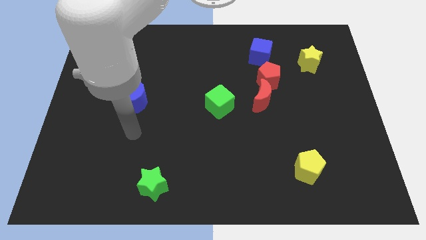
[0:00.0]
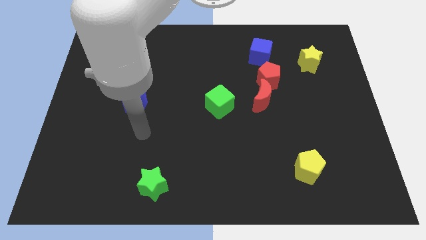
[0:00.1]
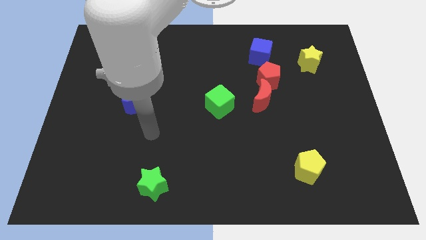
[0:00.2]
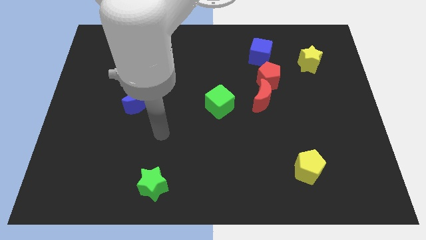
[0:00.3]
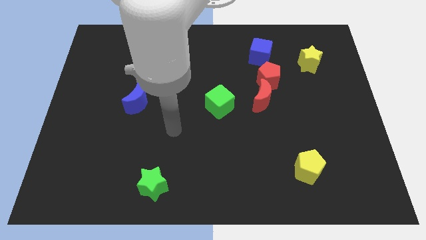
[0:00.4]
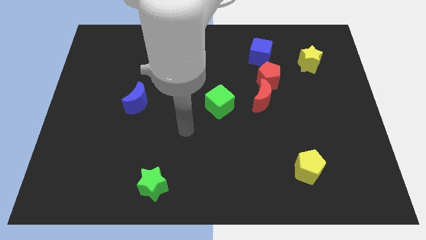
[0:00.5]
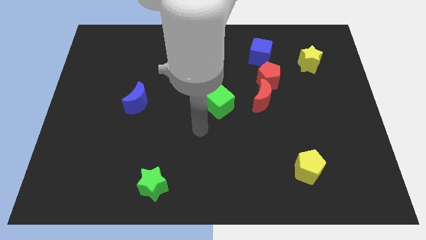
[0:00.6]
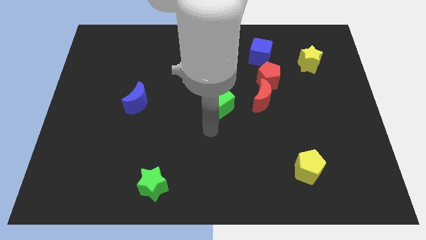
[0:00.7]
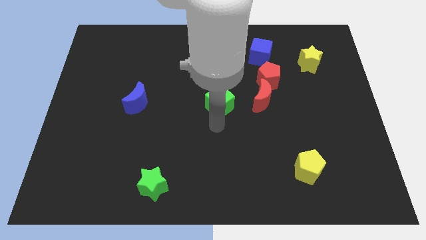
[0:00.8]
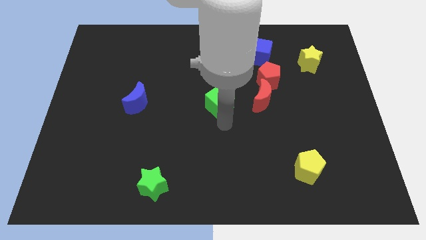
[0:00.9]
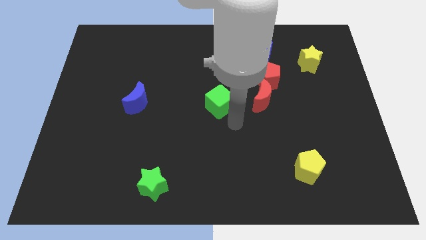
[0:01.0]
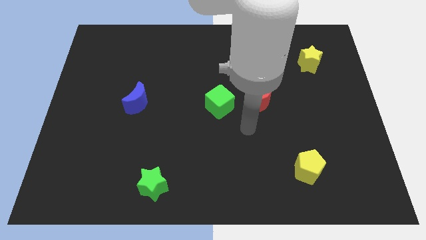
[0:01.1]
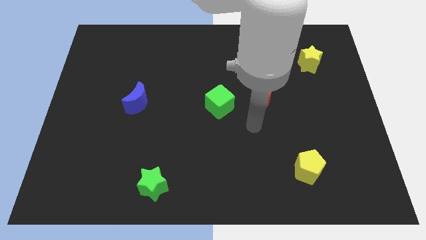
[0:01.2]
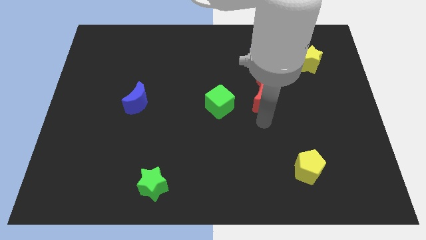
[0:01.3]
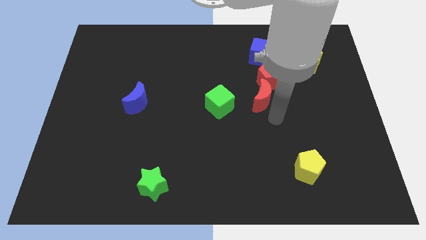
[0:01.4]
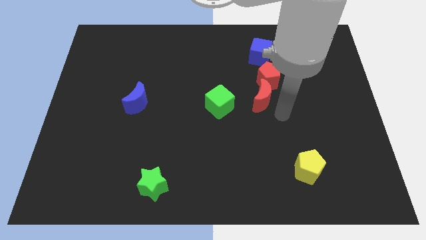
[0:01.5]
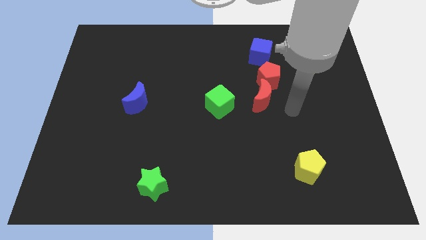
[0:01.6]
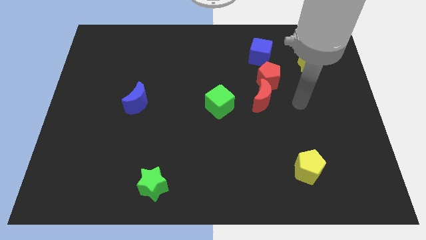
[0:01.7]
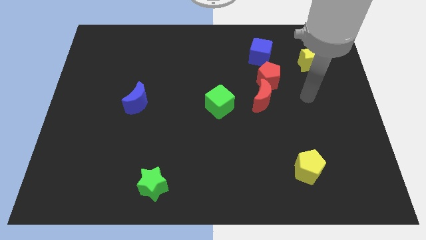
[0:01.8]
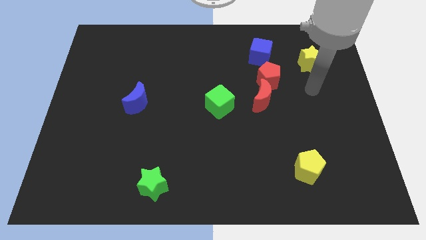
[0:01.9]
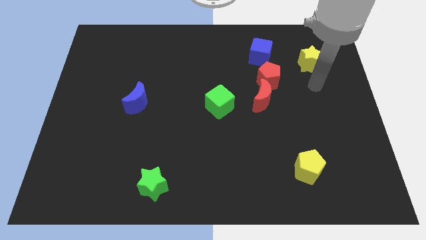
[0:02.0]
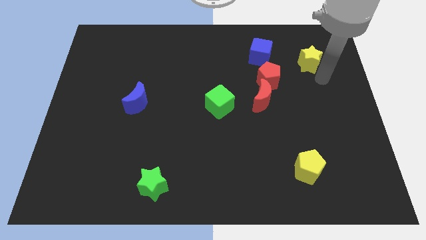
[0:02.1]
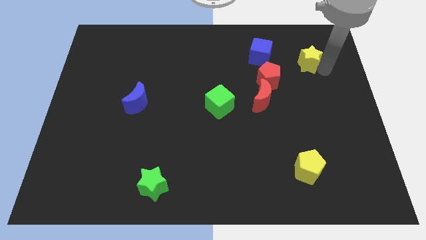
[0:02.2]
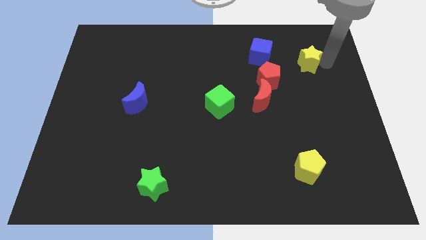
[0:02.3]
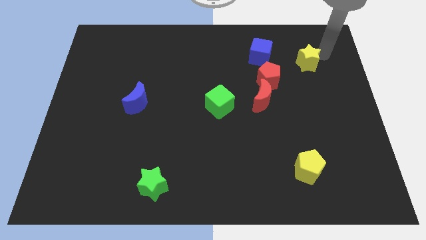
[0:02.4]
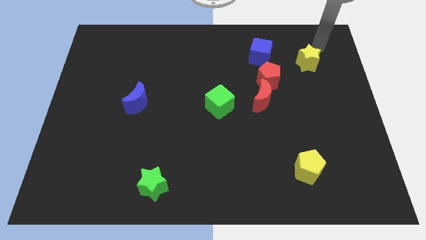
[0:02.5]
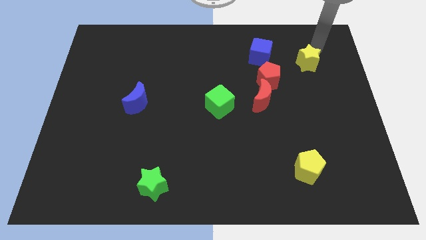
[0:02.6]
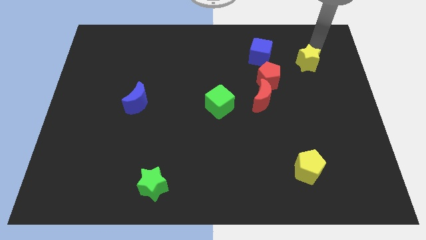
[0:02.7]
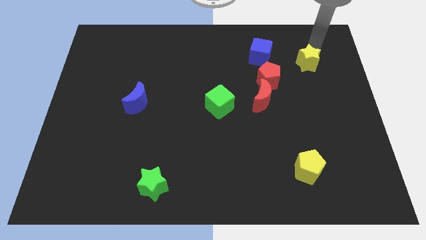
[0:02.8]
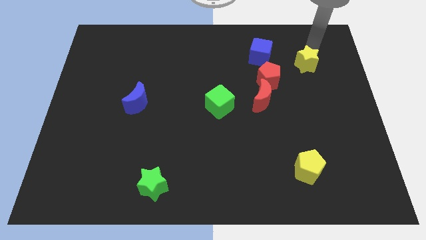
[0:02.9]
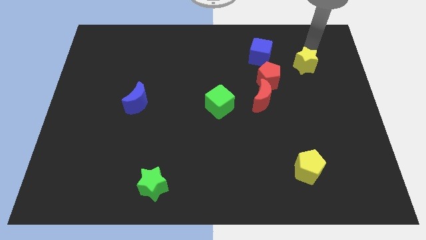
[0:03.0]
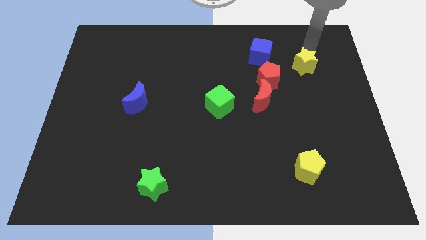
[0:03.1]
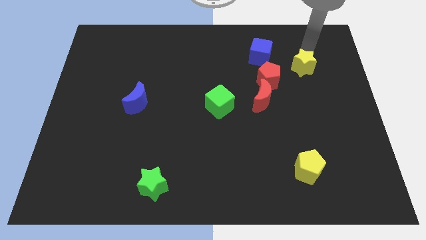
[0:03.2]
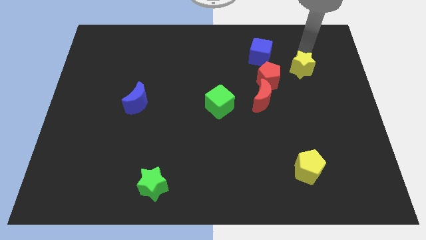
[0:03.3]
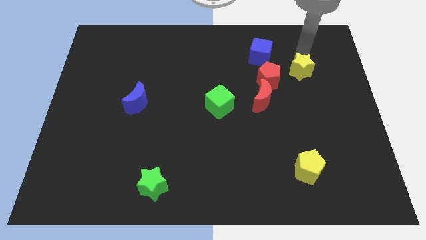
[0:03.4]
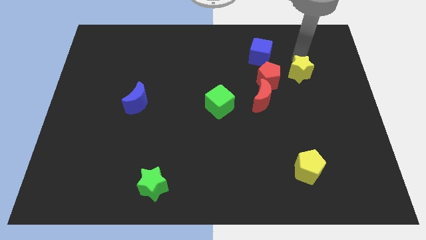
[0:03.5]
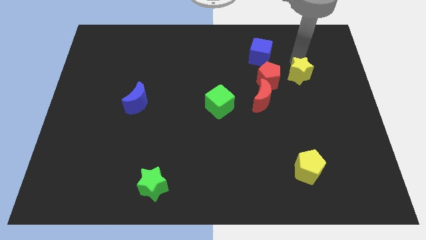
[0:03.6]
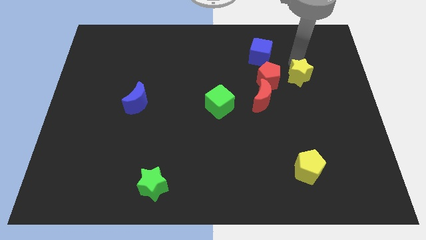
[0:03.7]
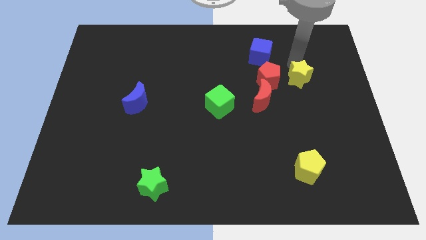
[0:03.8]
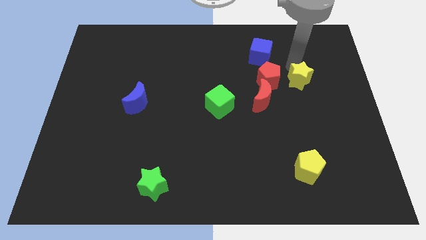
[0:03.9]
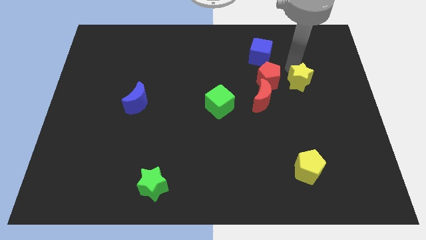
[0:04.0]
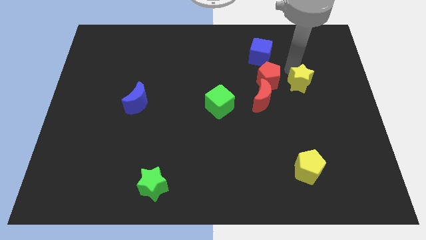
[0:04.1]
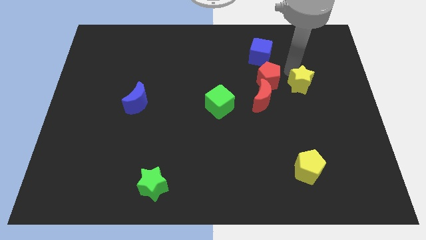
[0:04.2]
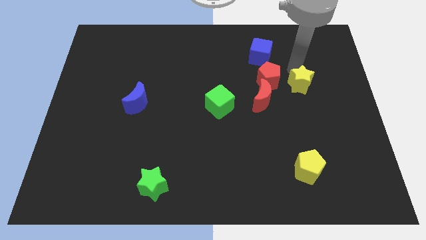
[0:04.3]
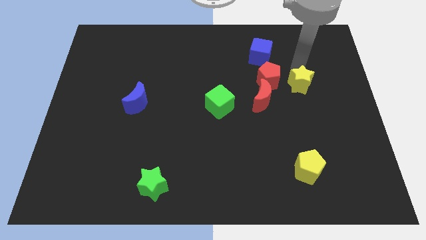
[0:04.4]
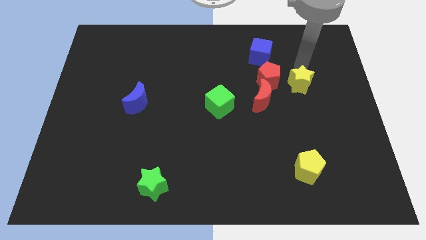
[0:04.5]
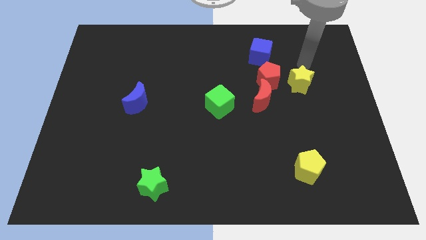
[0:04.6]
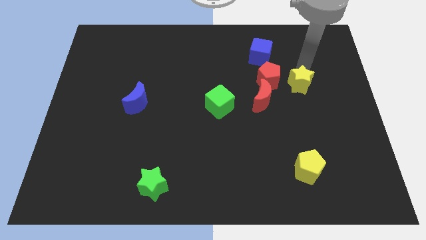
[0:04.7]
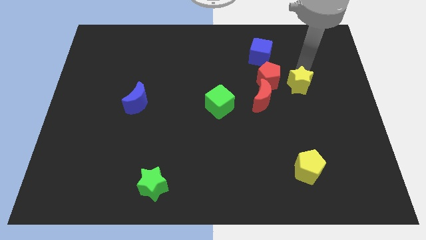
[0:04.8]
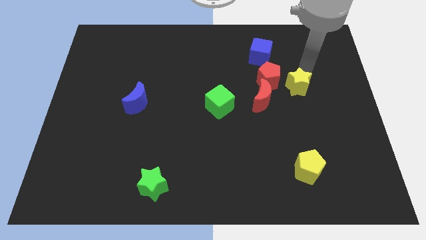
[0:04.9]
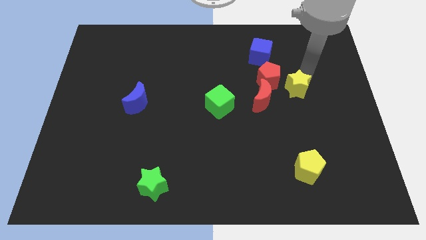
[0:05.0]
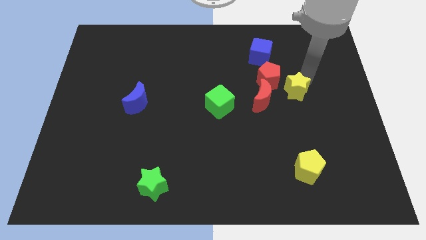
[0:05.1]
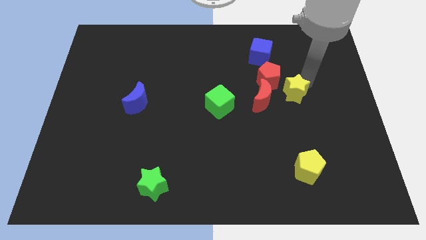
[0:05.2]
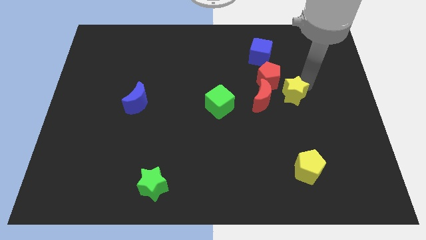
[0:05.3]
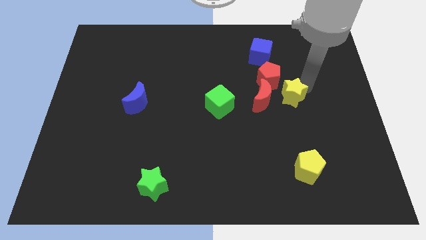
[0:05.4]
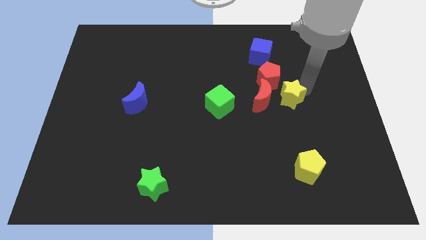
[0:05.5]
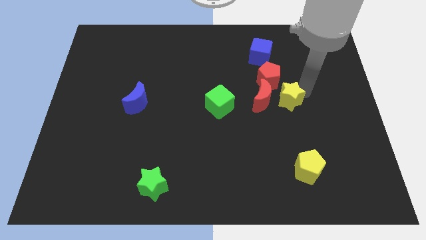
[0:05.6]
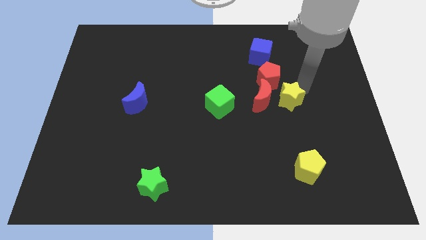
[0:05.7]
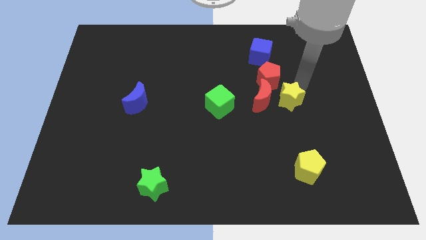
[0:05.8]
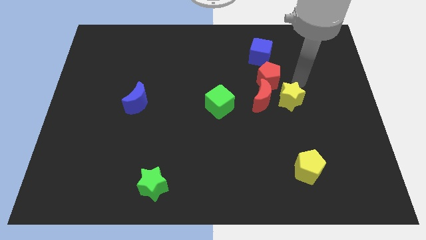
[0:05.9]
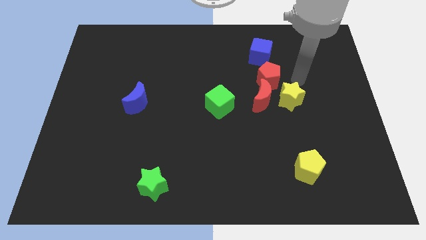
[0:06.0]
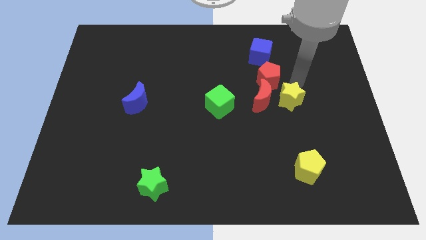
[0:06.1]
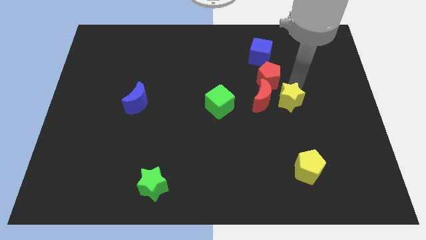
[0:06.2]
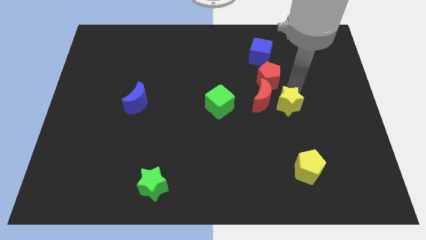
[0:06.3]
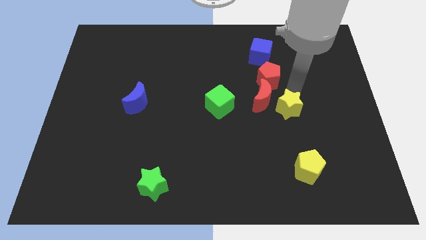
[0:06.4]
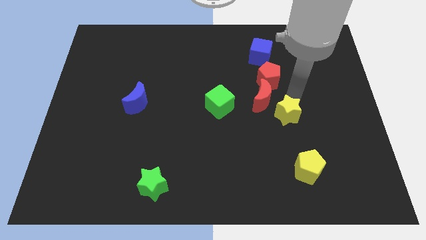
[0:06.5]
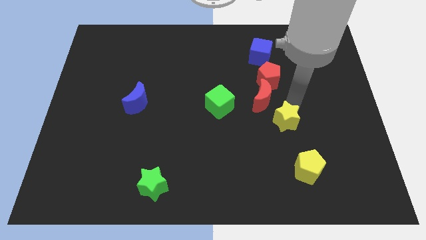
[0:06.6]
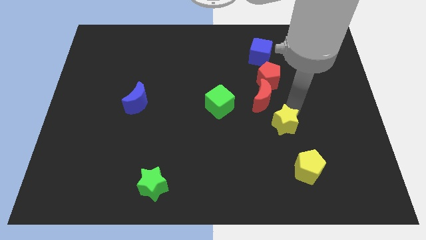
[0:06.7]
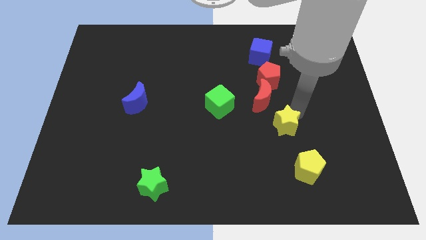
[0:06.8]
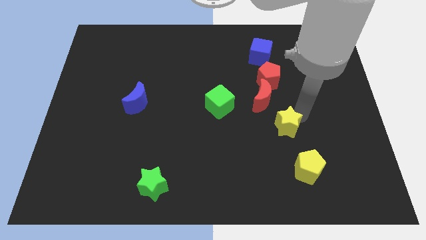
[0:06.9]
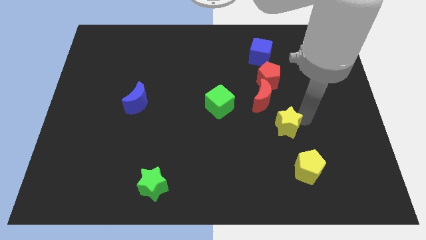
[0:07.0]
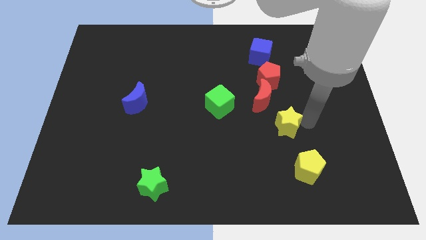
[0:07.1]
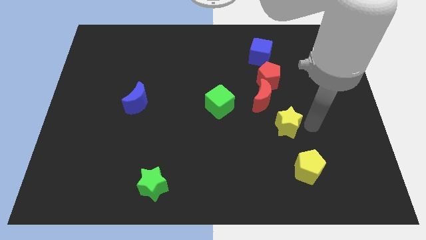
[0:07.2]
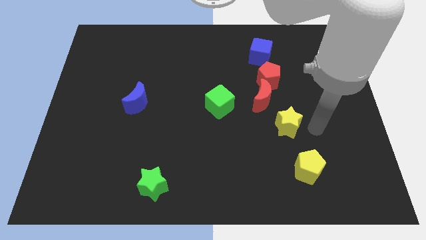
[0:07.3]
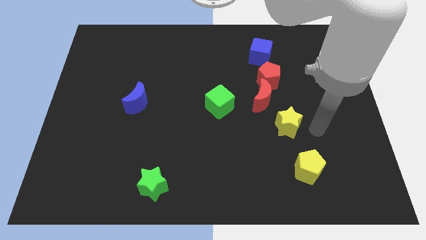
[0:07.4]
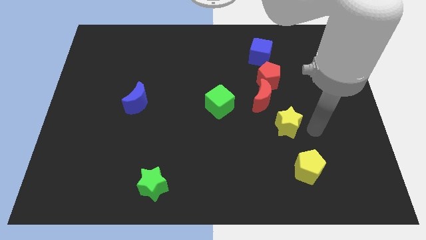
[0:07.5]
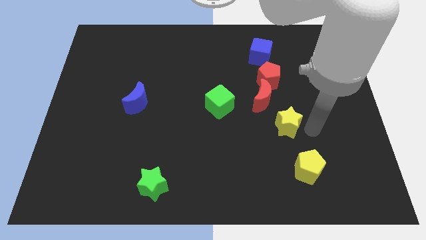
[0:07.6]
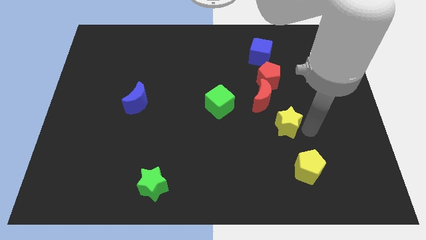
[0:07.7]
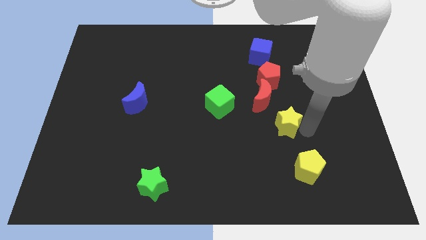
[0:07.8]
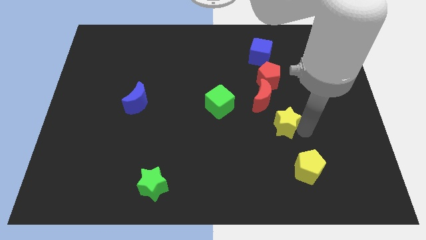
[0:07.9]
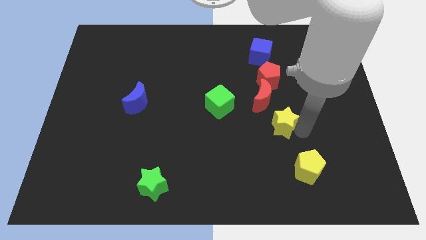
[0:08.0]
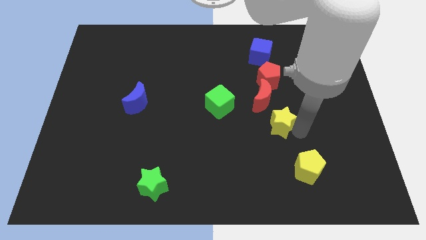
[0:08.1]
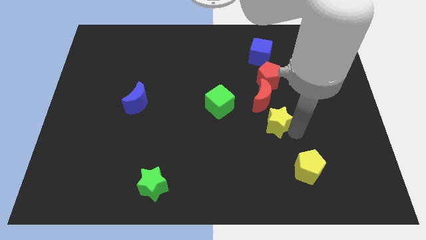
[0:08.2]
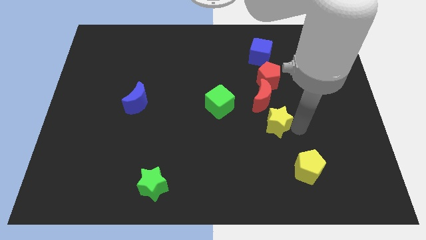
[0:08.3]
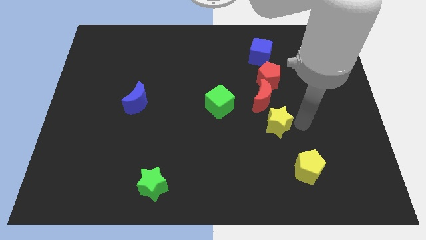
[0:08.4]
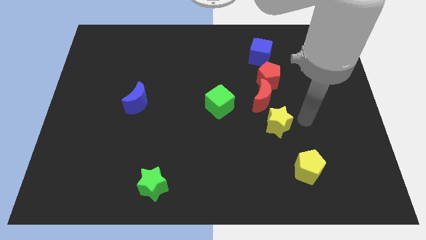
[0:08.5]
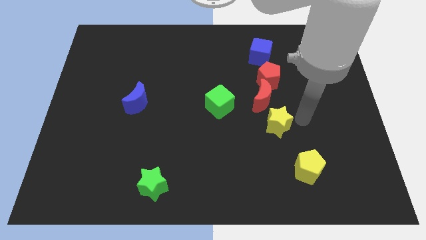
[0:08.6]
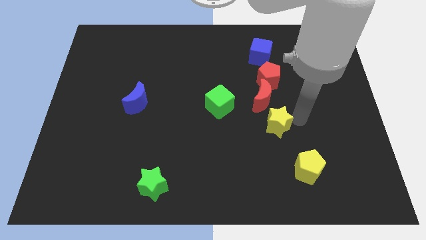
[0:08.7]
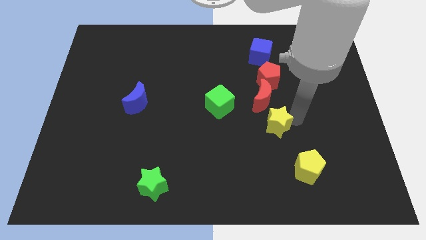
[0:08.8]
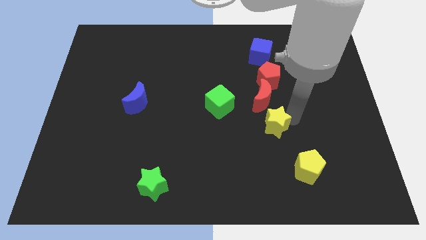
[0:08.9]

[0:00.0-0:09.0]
push the yellow star down and to the left
